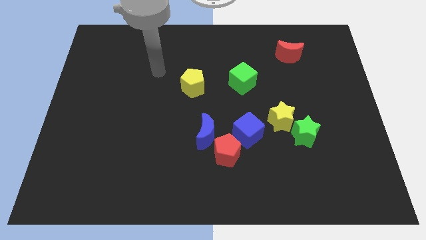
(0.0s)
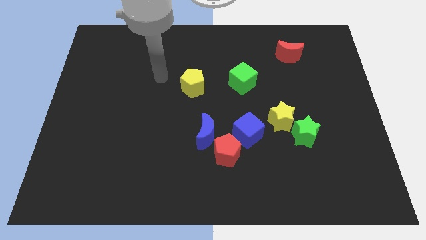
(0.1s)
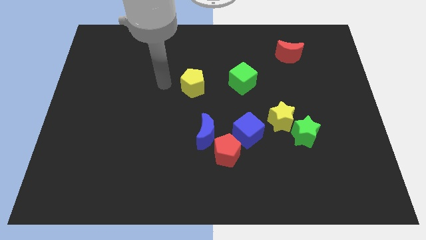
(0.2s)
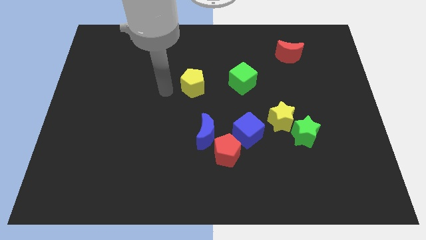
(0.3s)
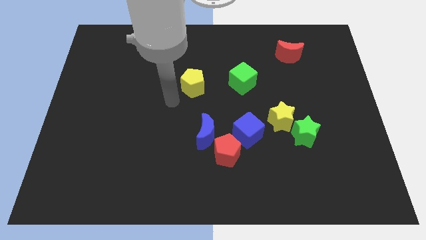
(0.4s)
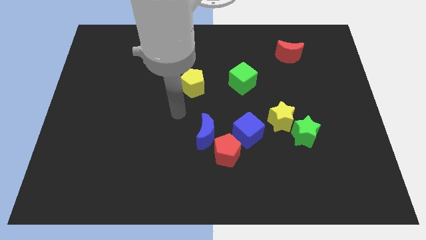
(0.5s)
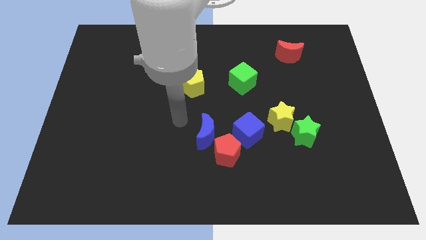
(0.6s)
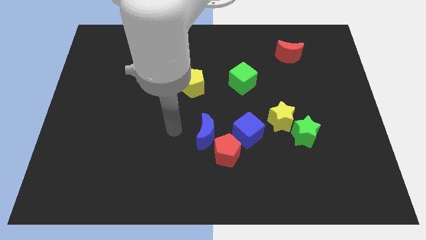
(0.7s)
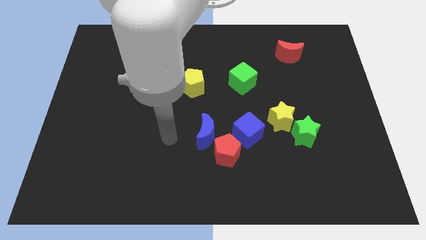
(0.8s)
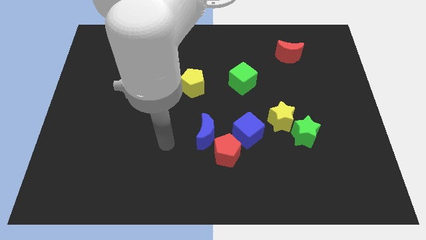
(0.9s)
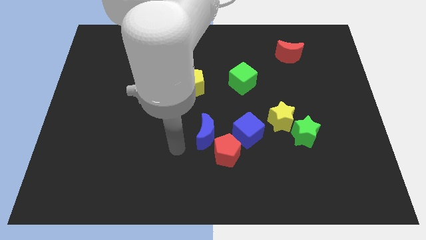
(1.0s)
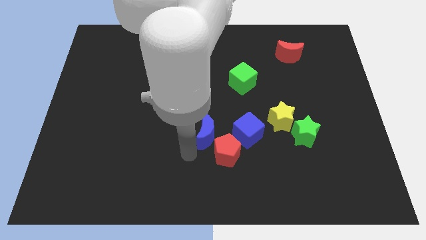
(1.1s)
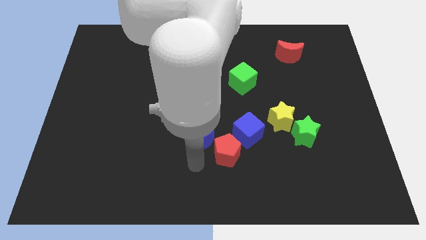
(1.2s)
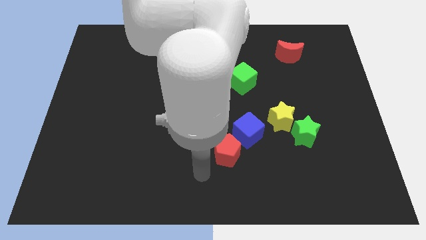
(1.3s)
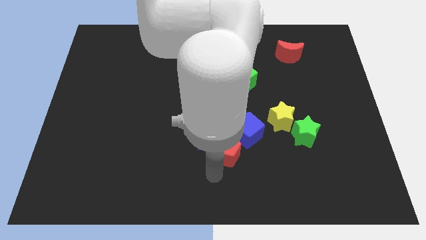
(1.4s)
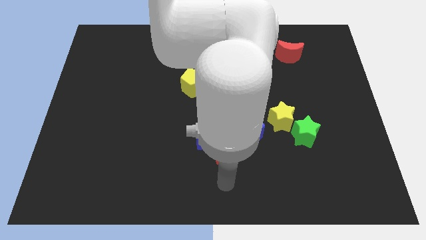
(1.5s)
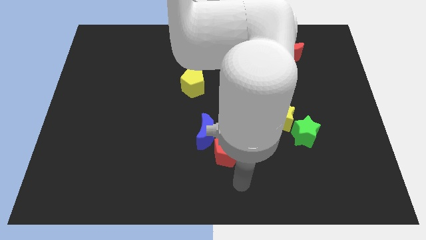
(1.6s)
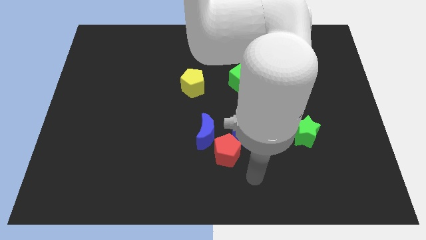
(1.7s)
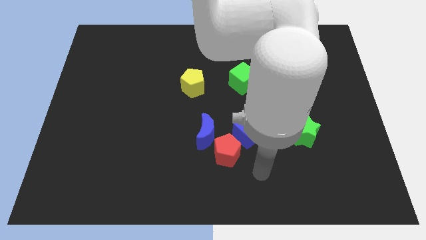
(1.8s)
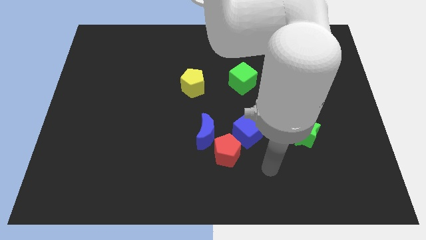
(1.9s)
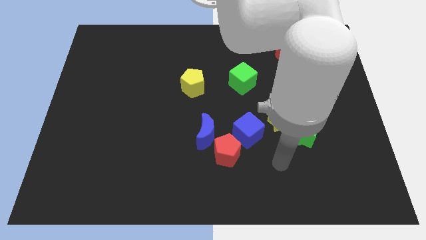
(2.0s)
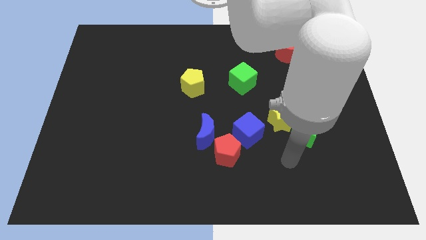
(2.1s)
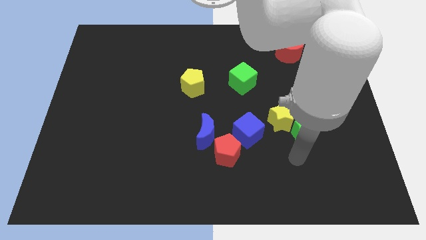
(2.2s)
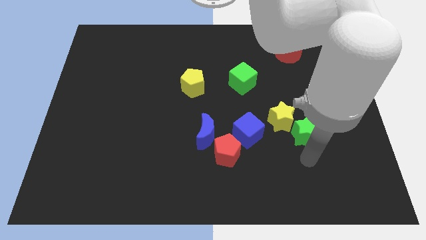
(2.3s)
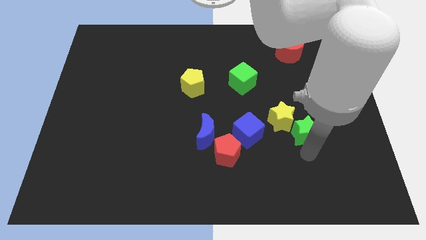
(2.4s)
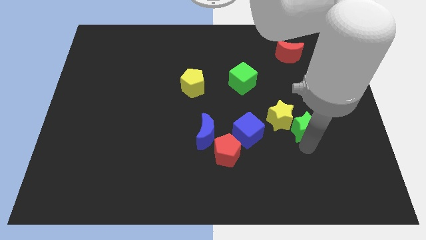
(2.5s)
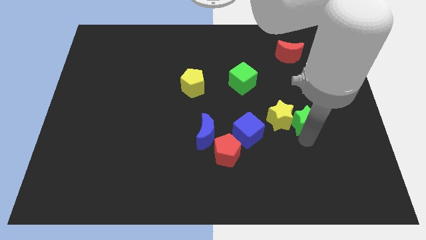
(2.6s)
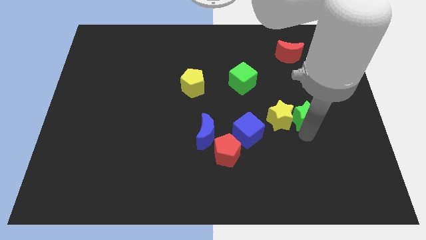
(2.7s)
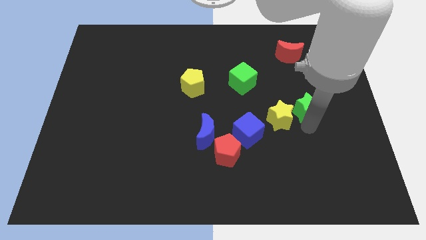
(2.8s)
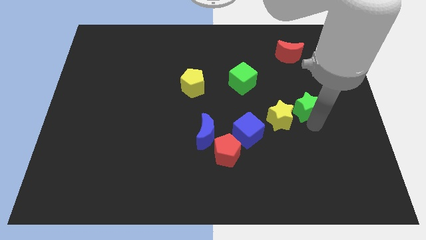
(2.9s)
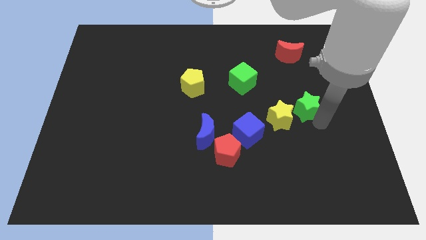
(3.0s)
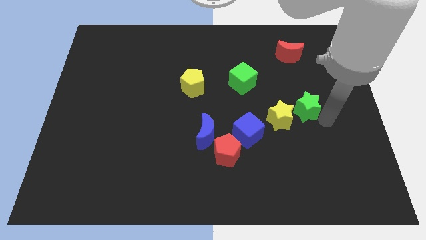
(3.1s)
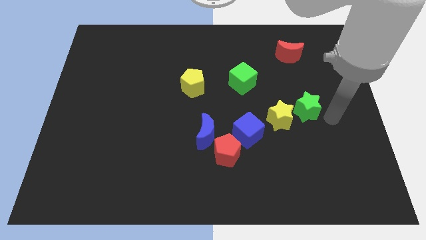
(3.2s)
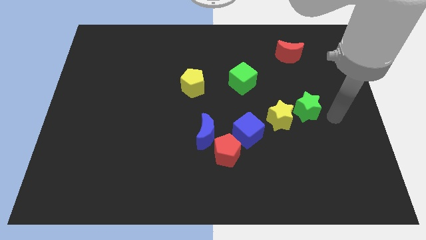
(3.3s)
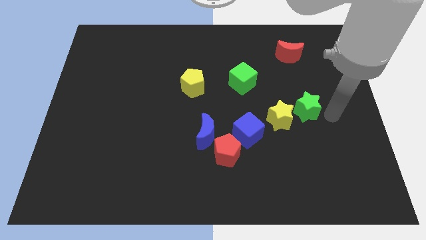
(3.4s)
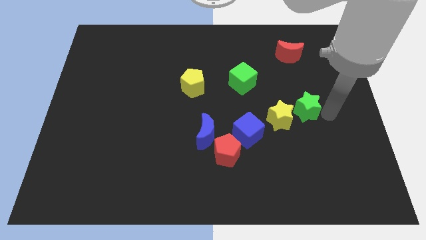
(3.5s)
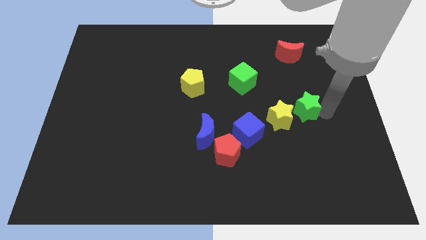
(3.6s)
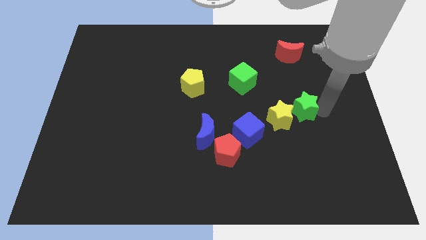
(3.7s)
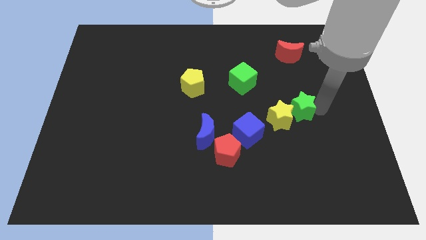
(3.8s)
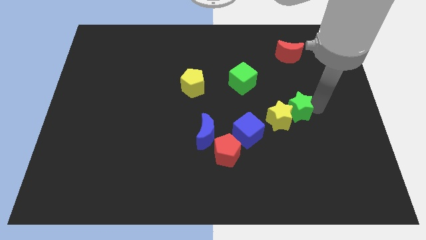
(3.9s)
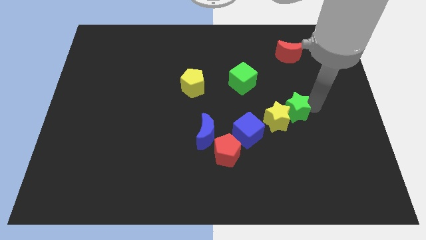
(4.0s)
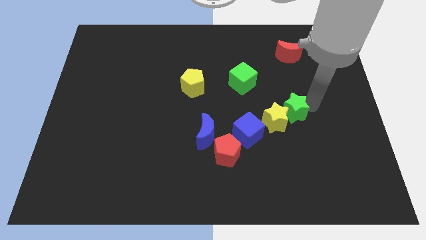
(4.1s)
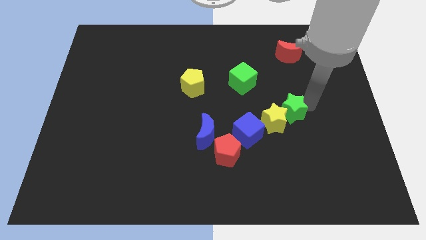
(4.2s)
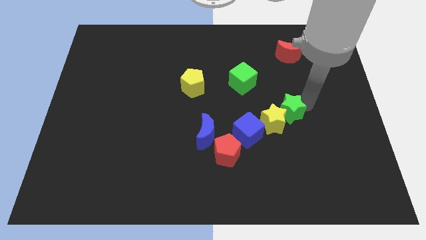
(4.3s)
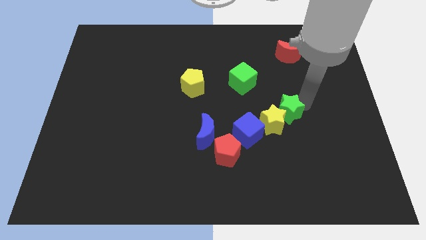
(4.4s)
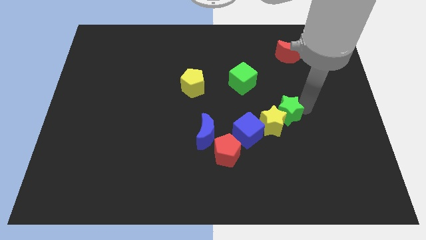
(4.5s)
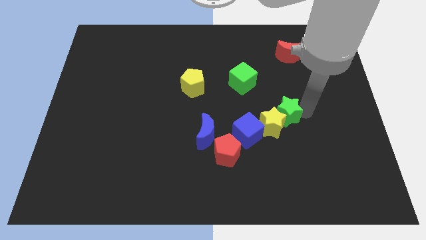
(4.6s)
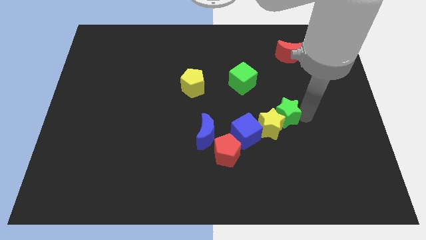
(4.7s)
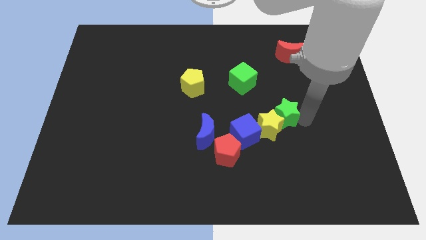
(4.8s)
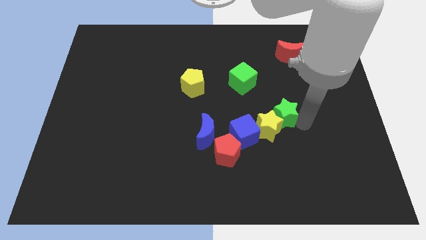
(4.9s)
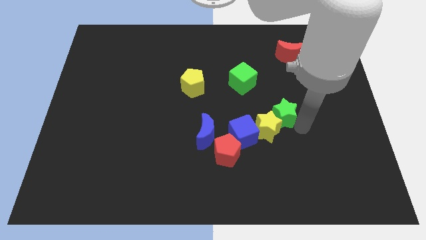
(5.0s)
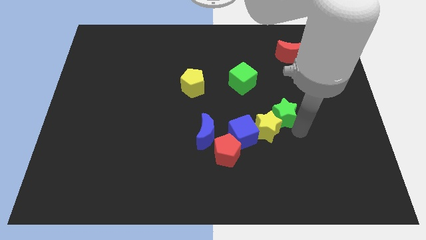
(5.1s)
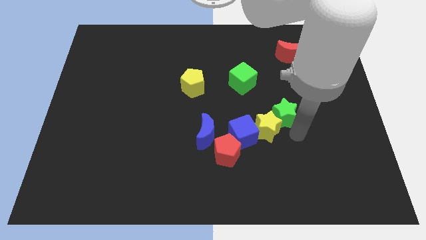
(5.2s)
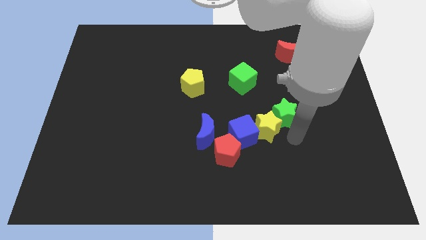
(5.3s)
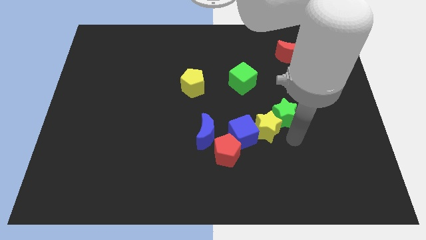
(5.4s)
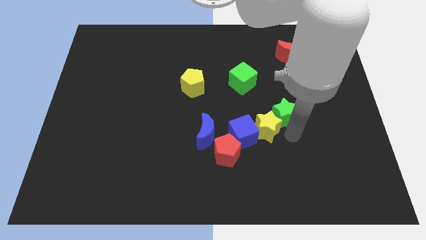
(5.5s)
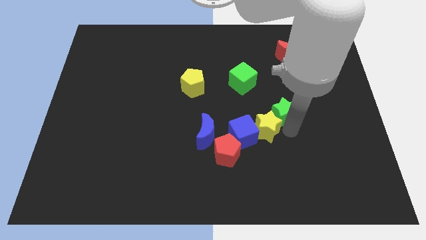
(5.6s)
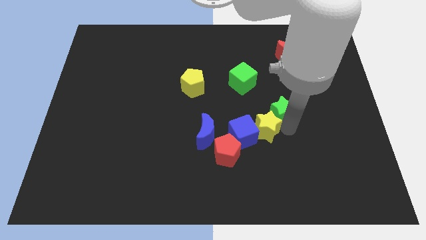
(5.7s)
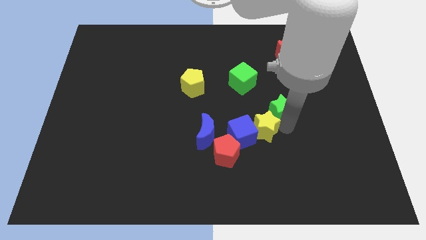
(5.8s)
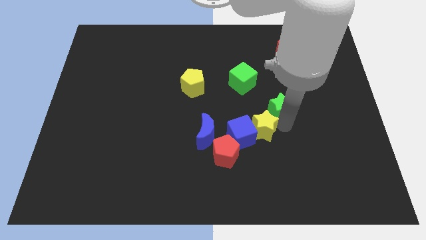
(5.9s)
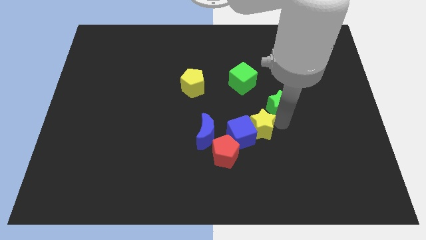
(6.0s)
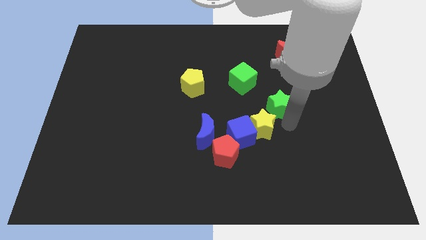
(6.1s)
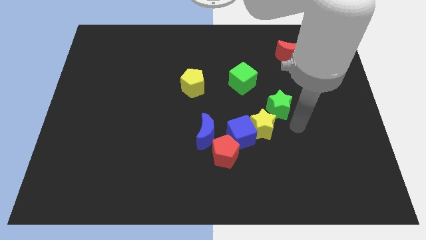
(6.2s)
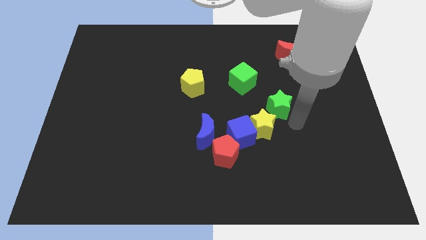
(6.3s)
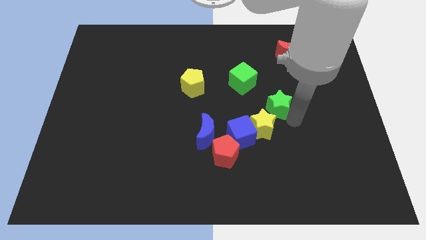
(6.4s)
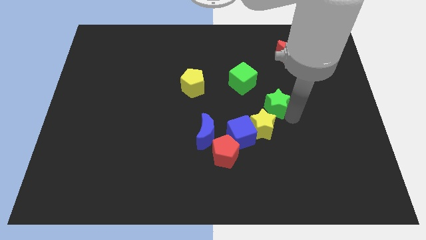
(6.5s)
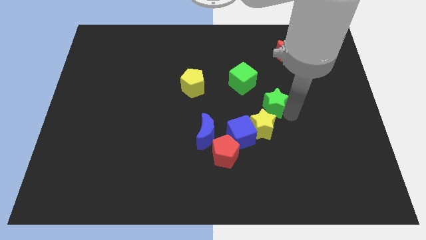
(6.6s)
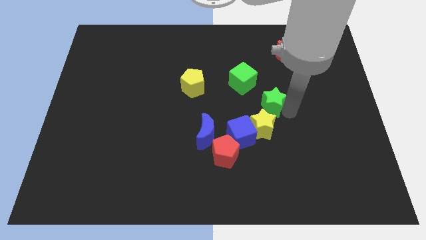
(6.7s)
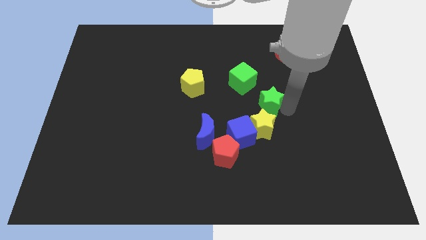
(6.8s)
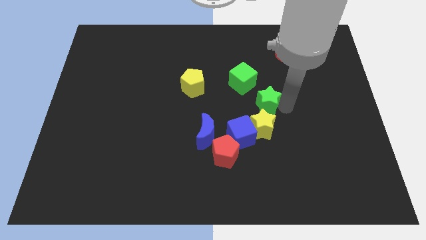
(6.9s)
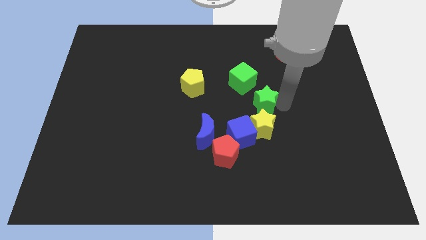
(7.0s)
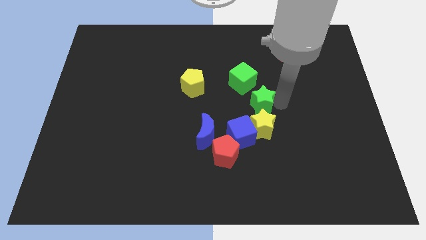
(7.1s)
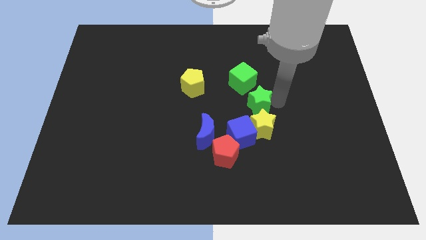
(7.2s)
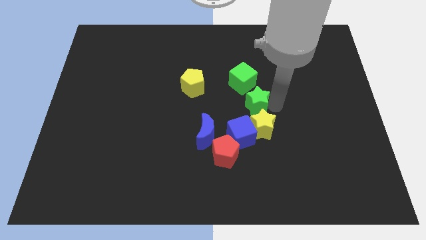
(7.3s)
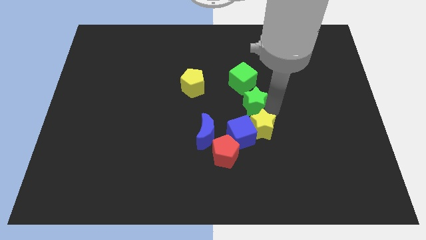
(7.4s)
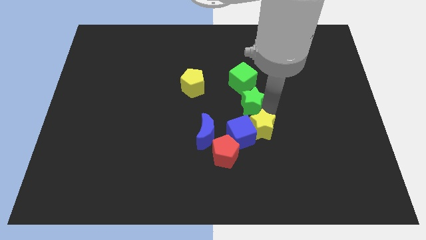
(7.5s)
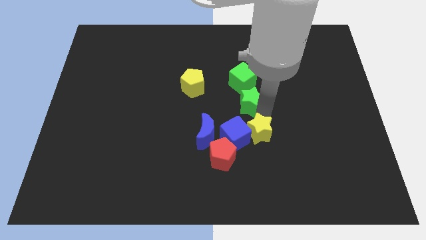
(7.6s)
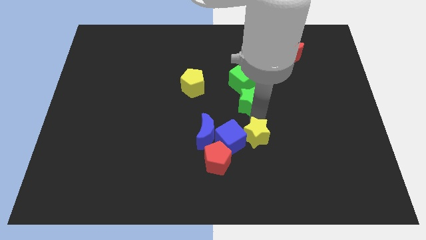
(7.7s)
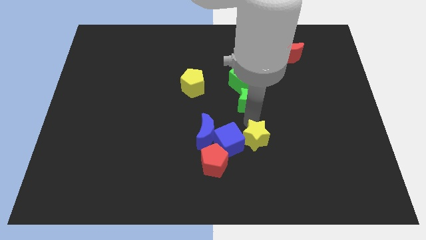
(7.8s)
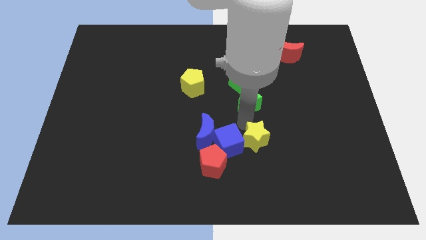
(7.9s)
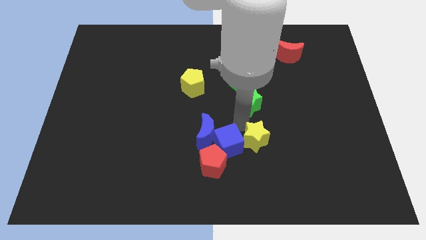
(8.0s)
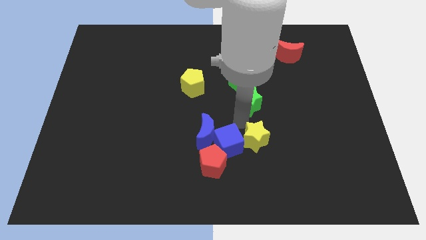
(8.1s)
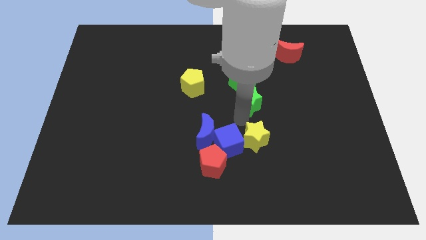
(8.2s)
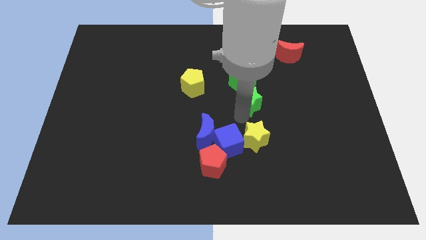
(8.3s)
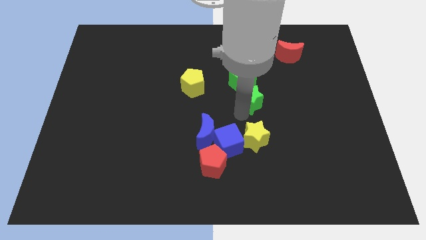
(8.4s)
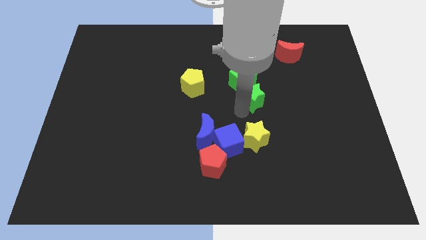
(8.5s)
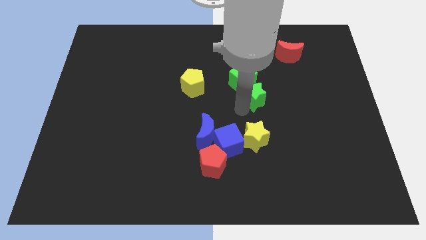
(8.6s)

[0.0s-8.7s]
slide the green star close to the green cube
